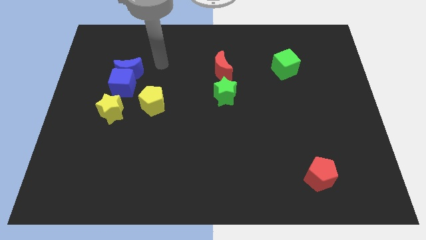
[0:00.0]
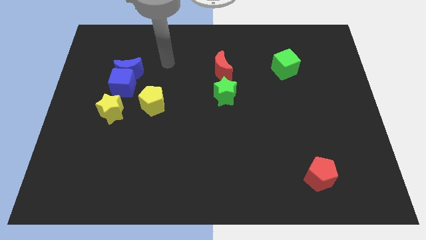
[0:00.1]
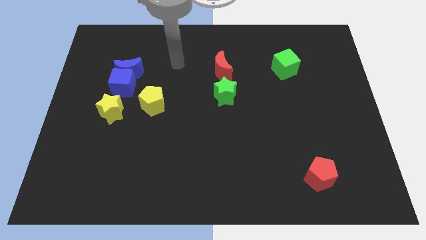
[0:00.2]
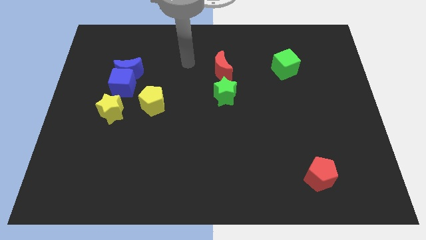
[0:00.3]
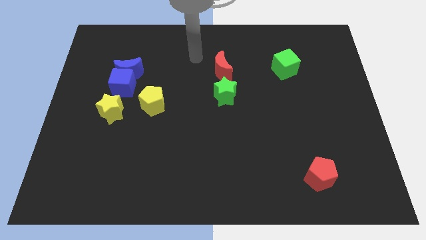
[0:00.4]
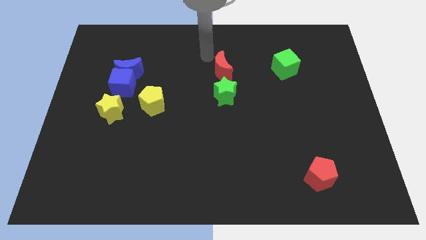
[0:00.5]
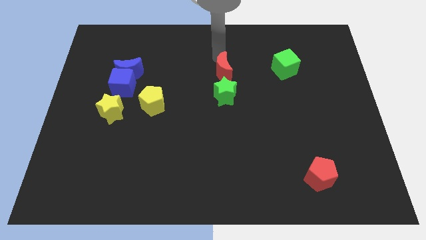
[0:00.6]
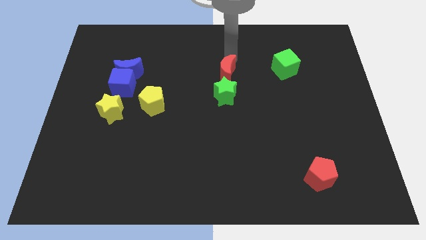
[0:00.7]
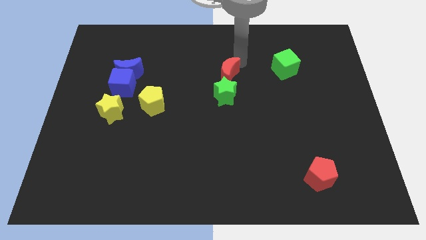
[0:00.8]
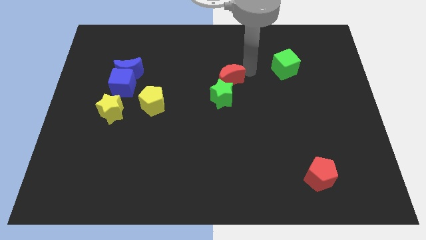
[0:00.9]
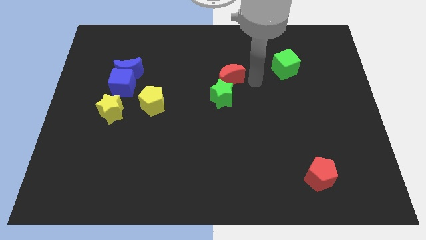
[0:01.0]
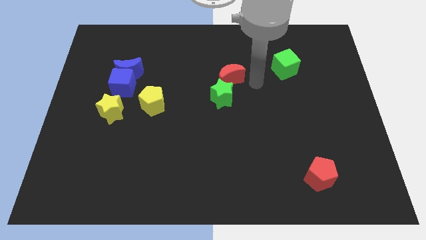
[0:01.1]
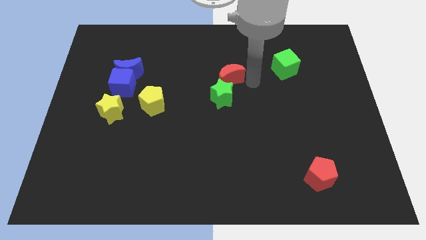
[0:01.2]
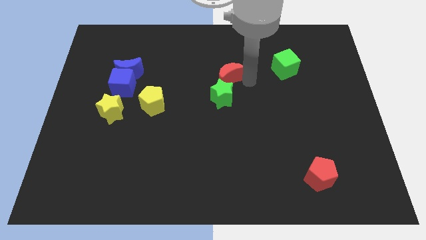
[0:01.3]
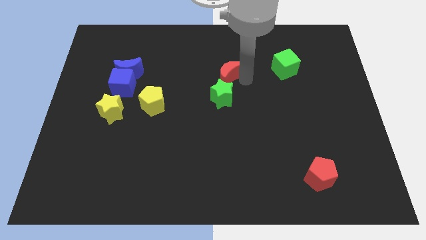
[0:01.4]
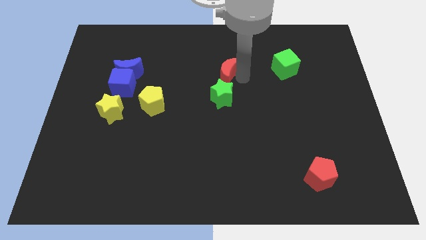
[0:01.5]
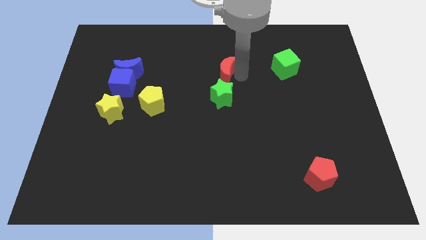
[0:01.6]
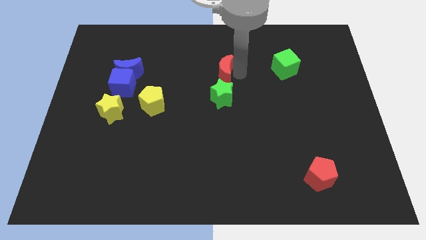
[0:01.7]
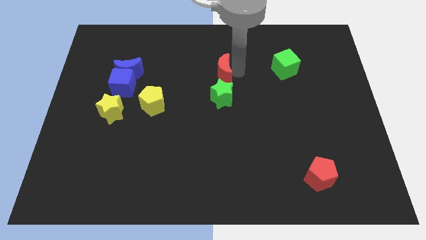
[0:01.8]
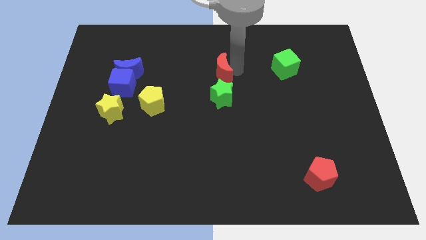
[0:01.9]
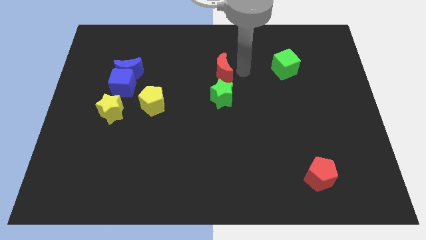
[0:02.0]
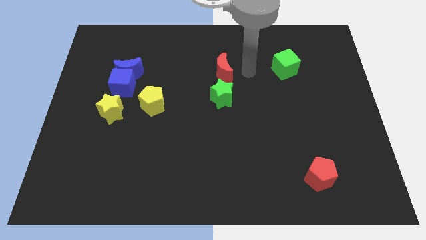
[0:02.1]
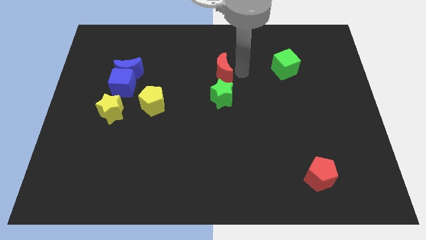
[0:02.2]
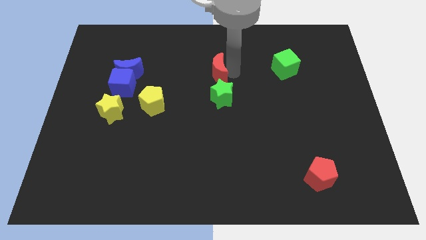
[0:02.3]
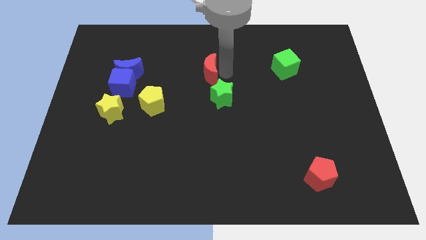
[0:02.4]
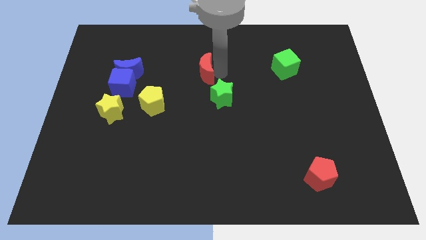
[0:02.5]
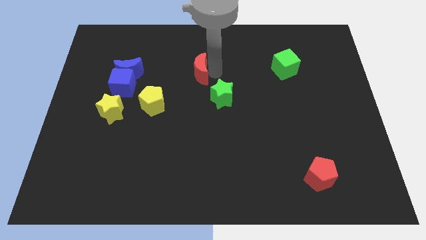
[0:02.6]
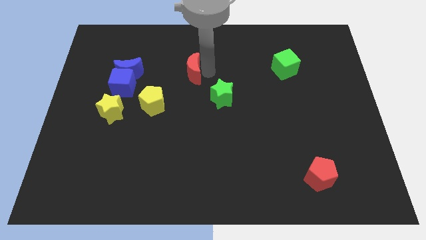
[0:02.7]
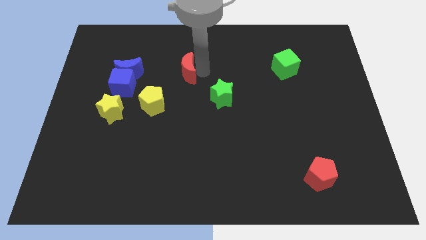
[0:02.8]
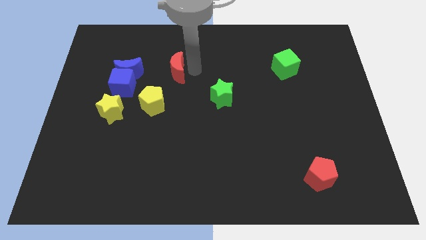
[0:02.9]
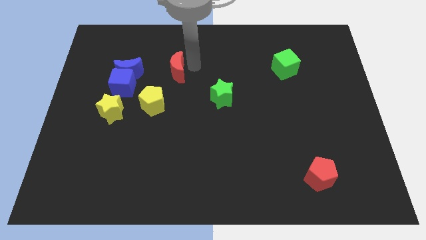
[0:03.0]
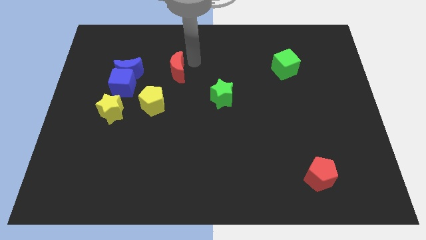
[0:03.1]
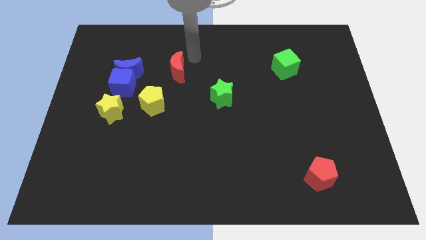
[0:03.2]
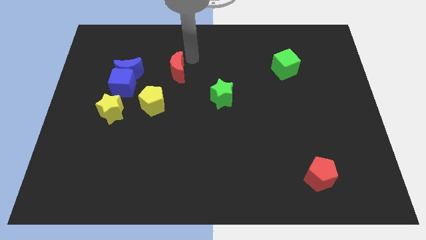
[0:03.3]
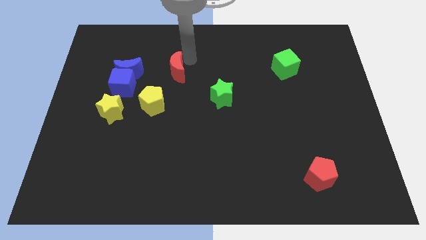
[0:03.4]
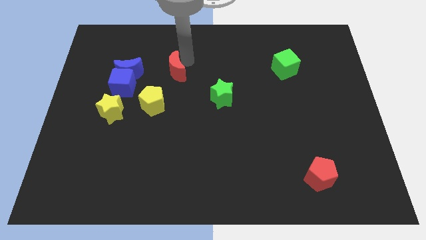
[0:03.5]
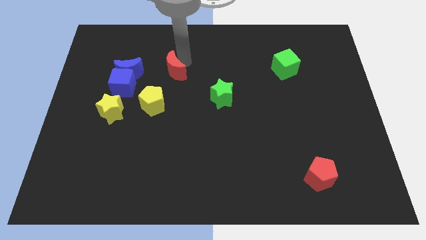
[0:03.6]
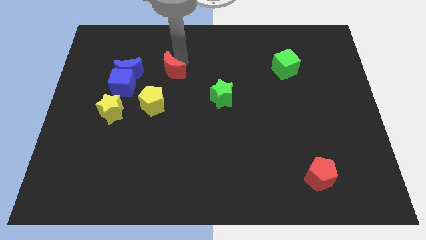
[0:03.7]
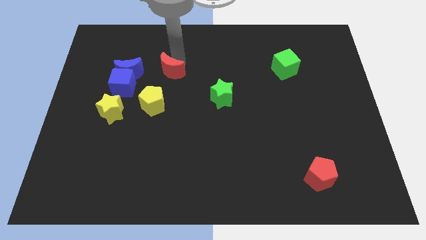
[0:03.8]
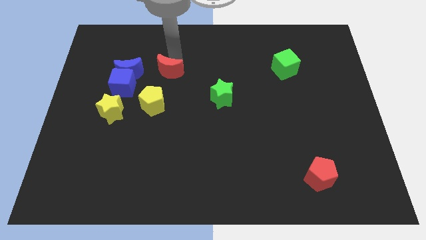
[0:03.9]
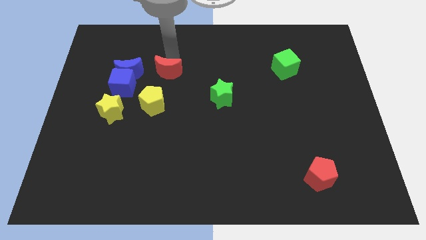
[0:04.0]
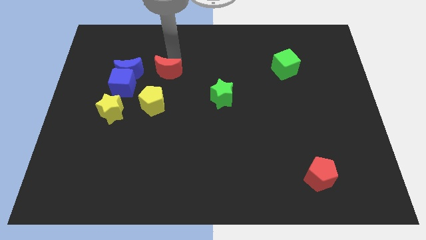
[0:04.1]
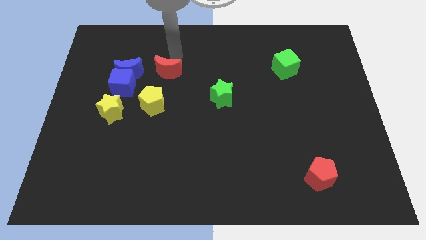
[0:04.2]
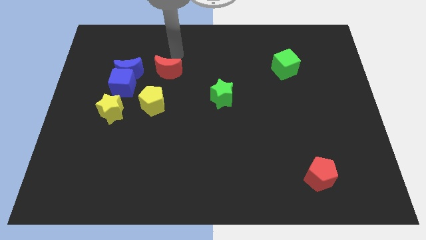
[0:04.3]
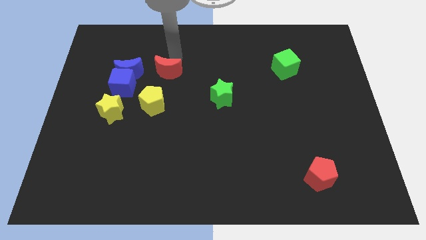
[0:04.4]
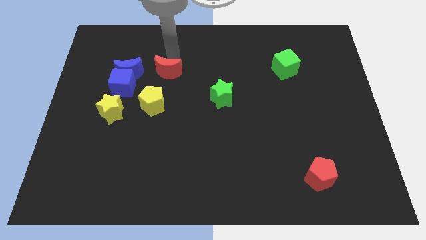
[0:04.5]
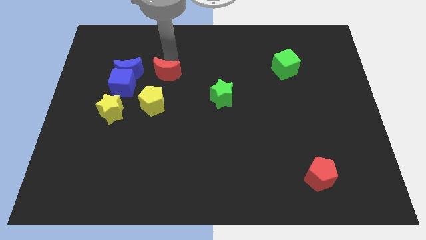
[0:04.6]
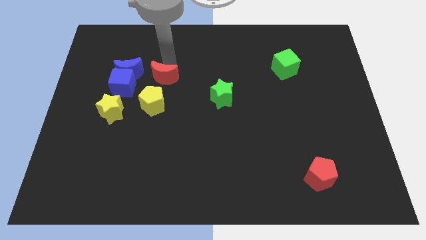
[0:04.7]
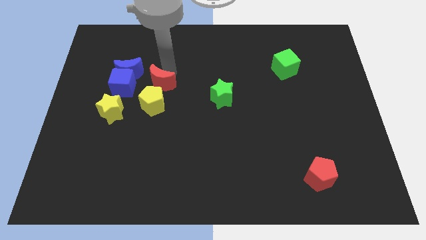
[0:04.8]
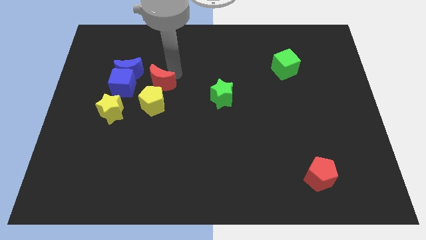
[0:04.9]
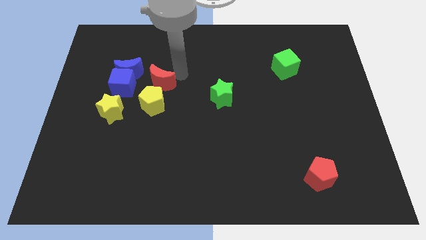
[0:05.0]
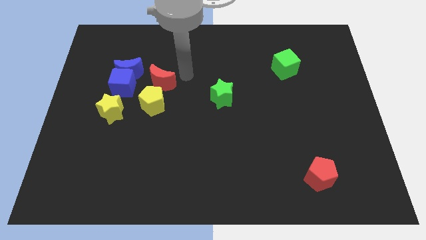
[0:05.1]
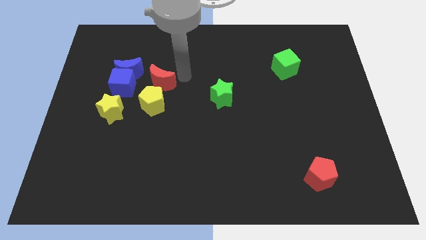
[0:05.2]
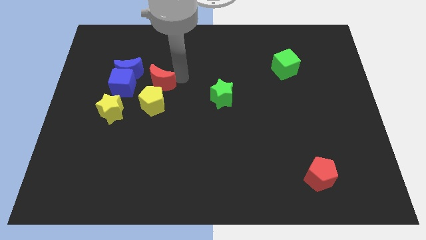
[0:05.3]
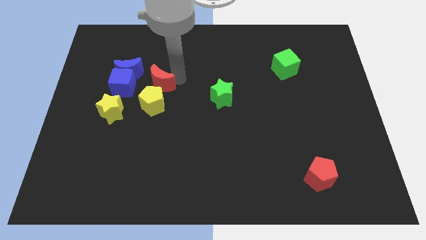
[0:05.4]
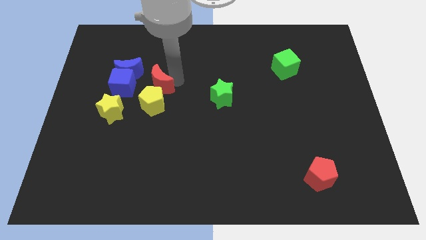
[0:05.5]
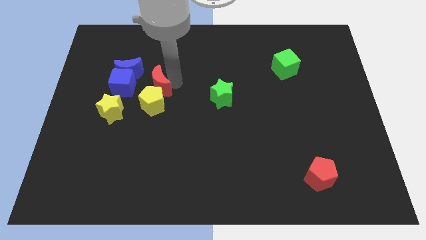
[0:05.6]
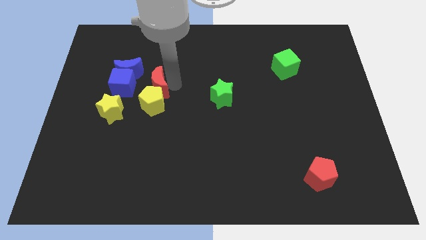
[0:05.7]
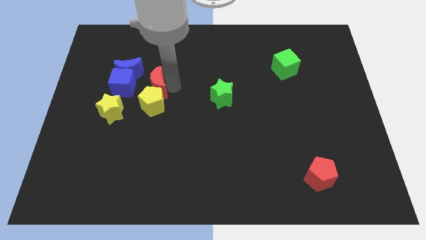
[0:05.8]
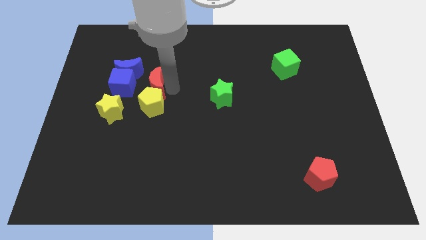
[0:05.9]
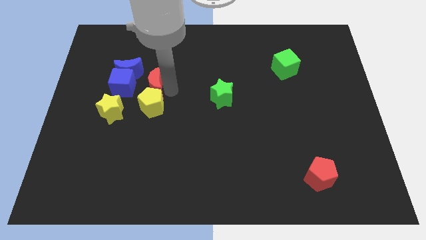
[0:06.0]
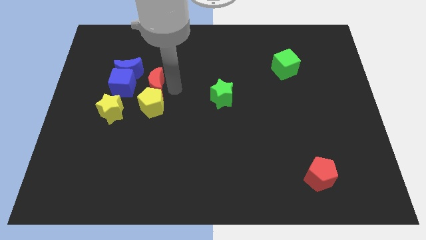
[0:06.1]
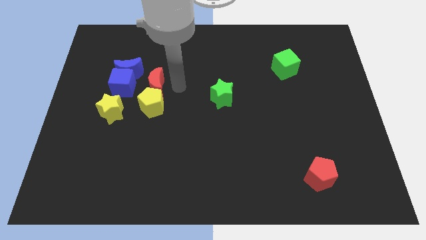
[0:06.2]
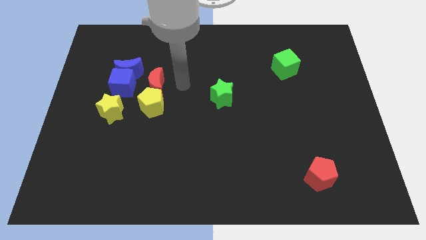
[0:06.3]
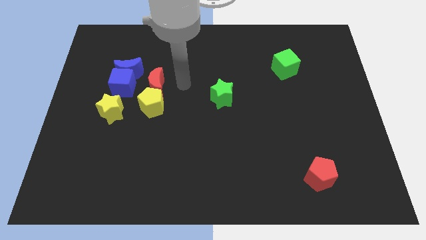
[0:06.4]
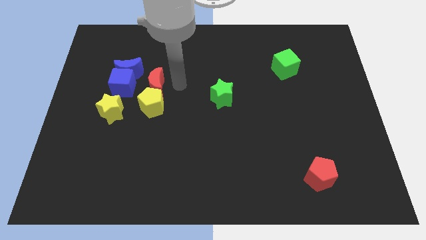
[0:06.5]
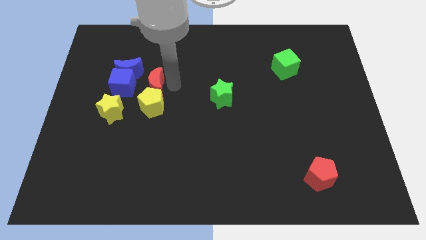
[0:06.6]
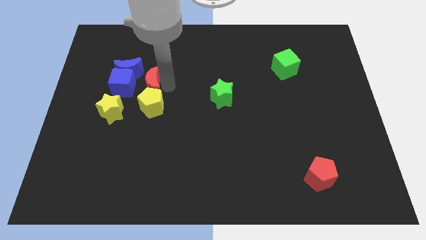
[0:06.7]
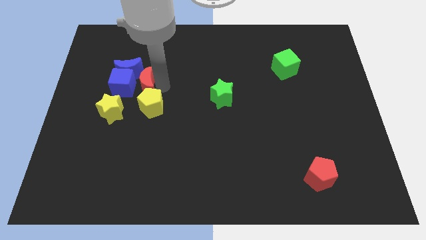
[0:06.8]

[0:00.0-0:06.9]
move the red moon next to the blue cube

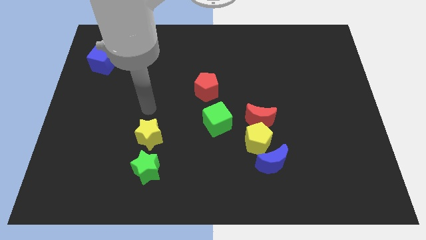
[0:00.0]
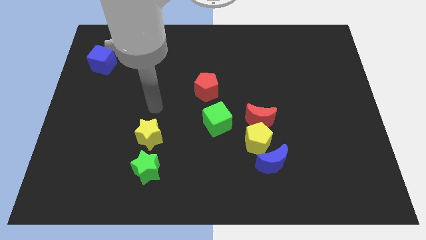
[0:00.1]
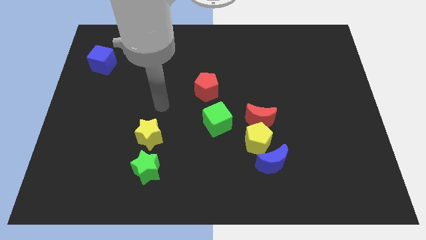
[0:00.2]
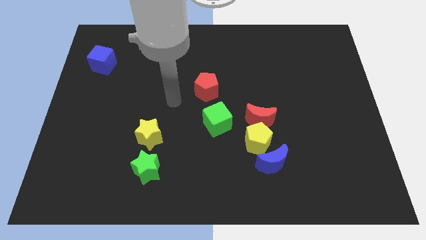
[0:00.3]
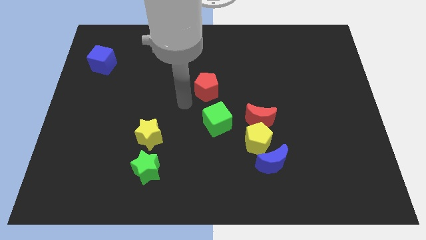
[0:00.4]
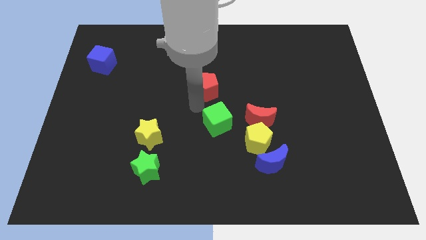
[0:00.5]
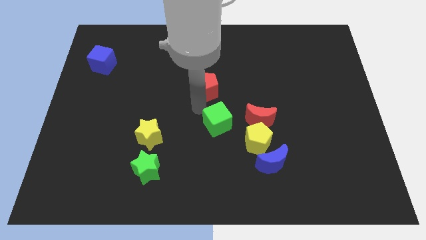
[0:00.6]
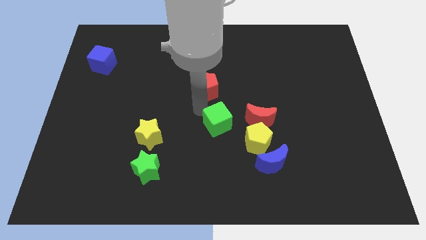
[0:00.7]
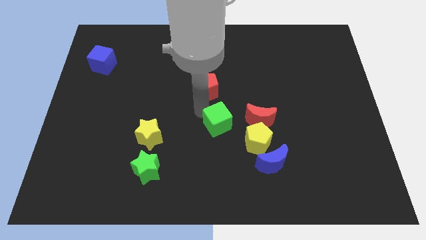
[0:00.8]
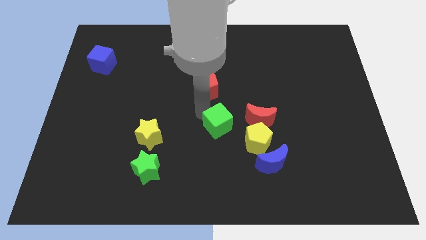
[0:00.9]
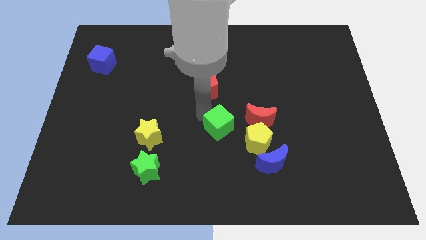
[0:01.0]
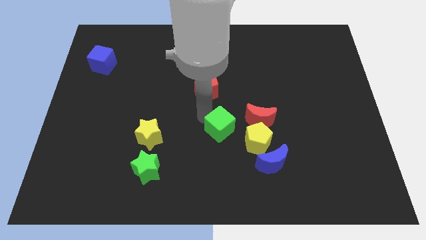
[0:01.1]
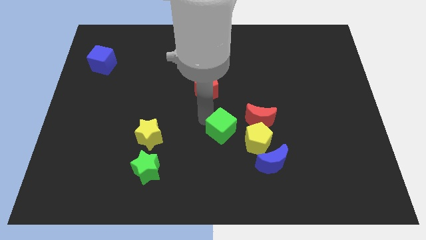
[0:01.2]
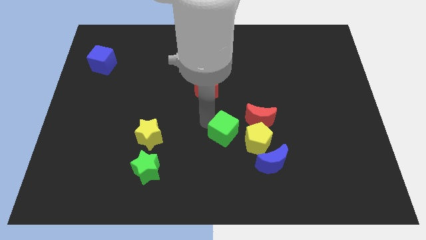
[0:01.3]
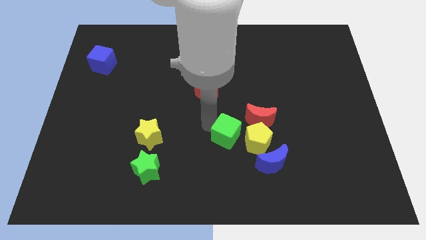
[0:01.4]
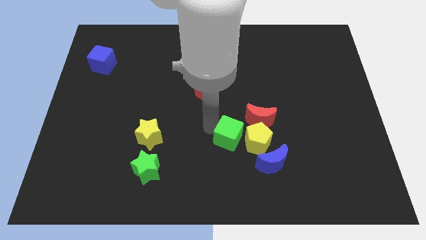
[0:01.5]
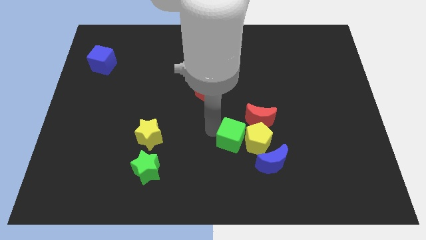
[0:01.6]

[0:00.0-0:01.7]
slide the green cube to the yellow pentagon
